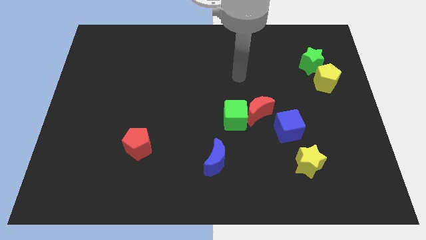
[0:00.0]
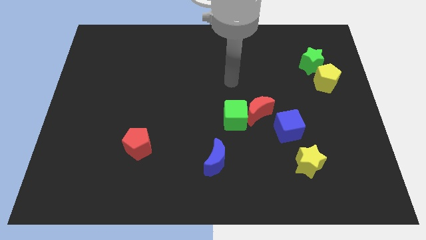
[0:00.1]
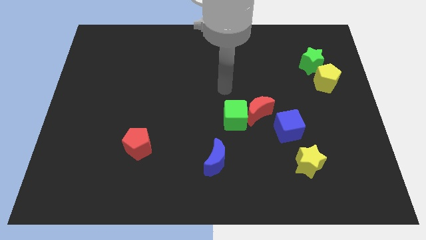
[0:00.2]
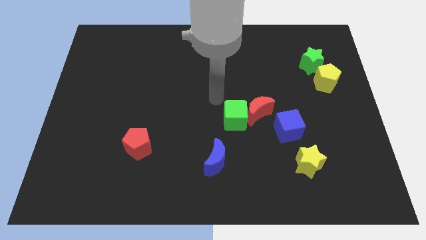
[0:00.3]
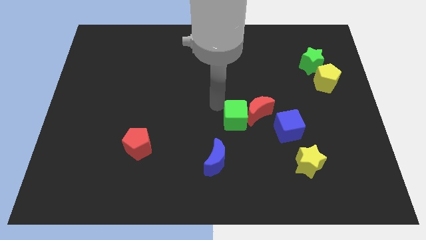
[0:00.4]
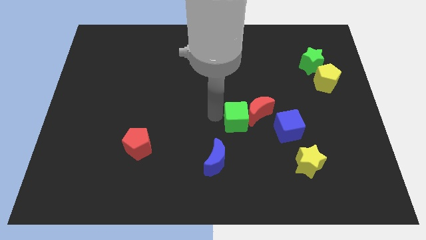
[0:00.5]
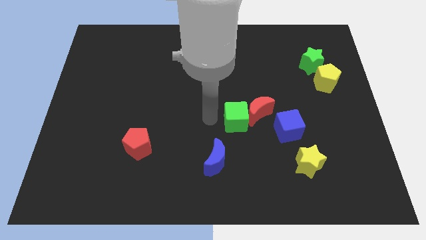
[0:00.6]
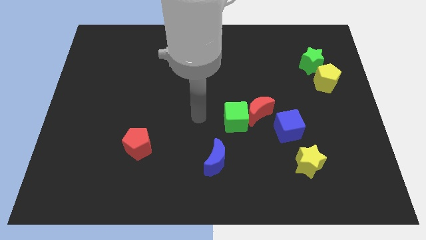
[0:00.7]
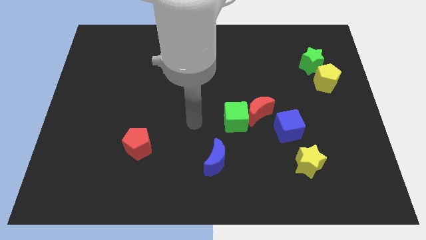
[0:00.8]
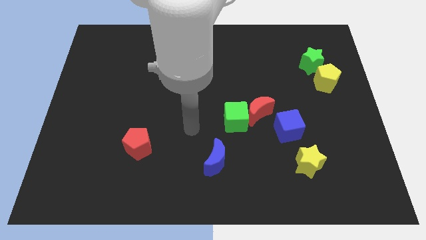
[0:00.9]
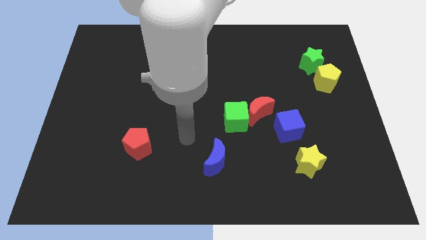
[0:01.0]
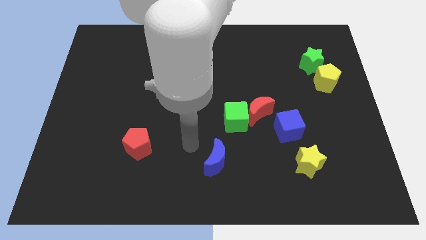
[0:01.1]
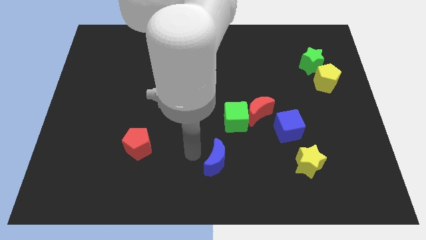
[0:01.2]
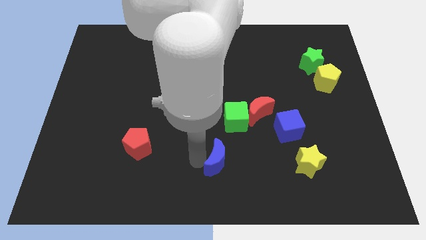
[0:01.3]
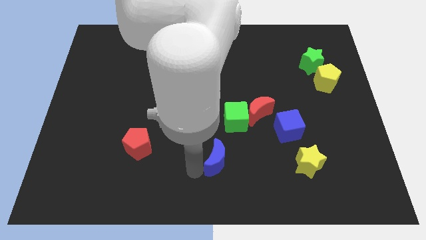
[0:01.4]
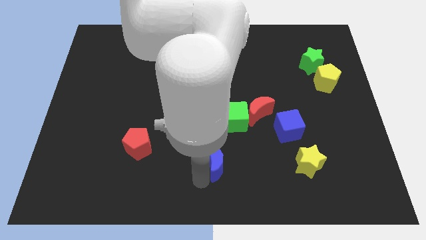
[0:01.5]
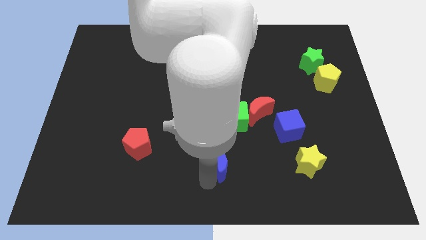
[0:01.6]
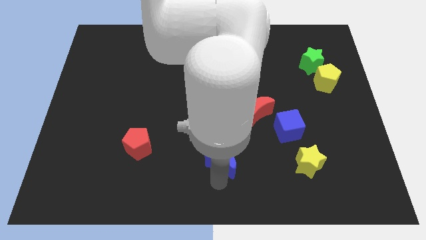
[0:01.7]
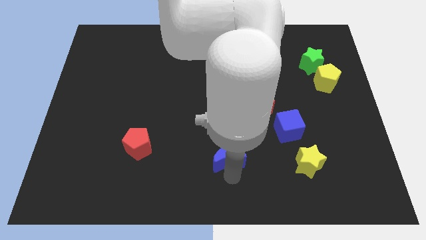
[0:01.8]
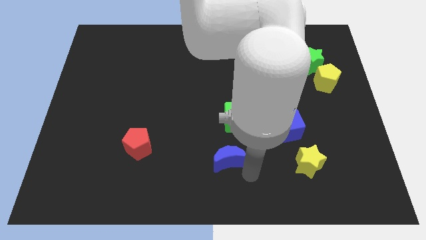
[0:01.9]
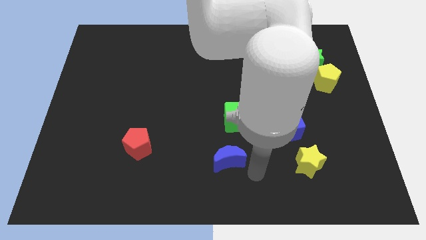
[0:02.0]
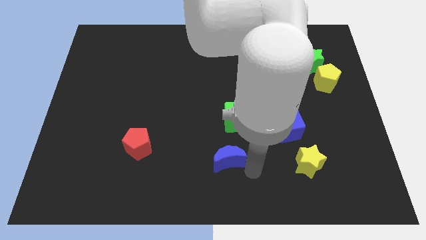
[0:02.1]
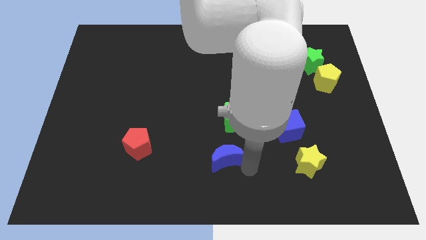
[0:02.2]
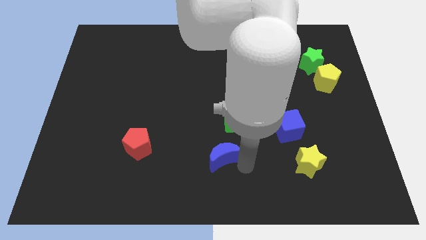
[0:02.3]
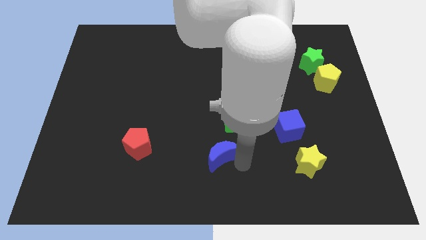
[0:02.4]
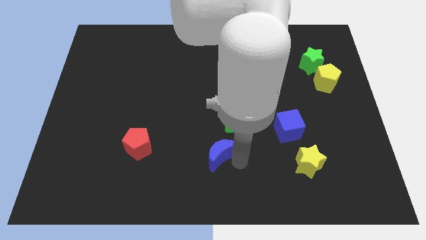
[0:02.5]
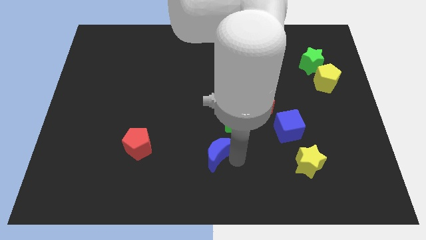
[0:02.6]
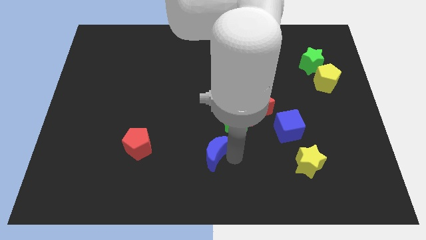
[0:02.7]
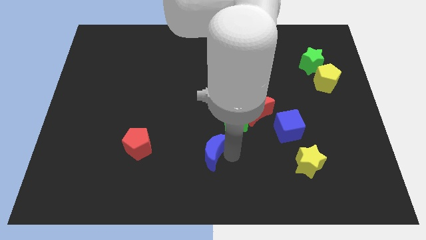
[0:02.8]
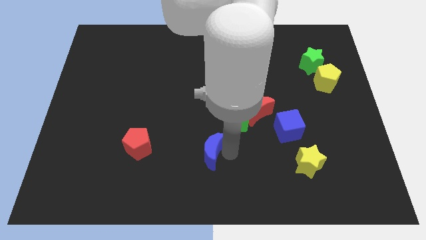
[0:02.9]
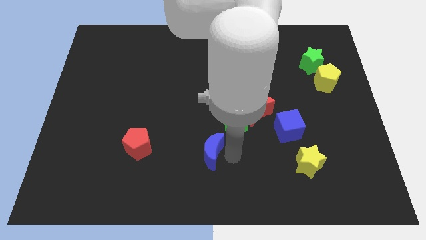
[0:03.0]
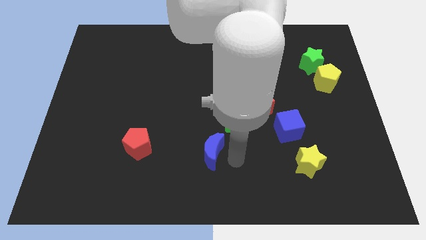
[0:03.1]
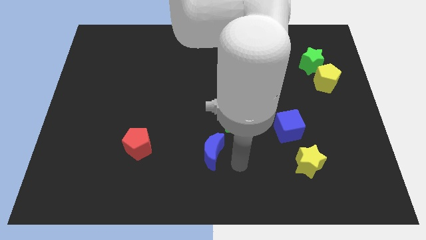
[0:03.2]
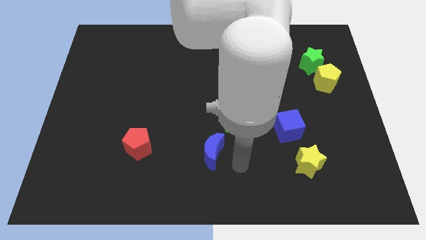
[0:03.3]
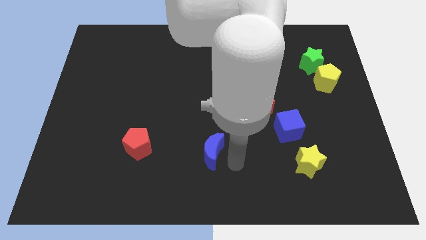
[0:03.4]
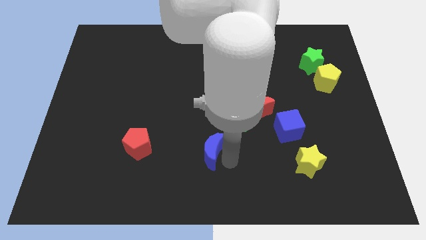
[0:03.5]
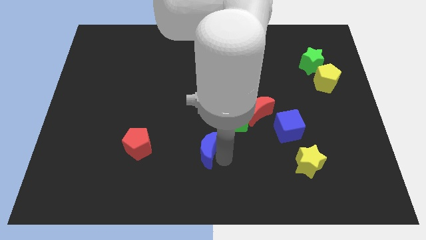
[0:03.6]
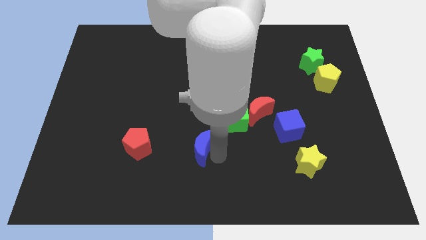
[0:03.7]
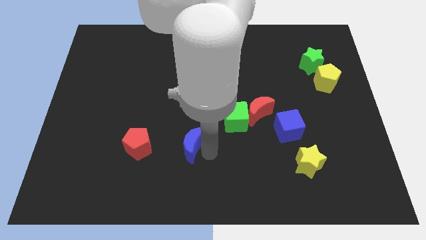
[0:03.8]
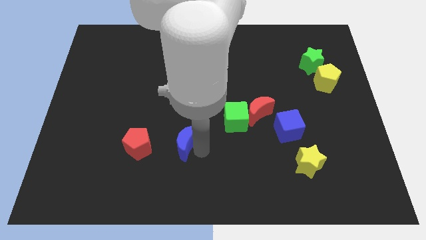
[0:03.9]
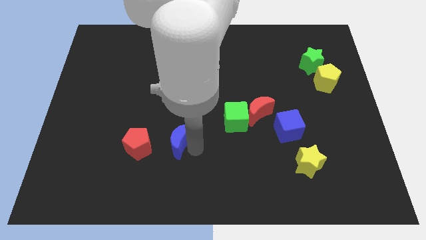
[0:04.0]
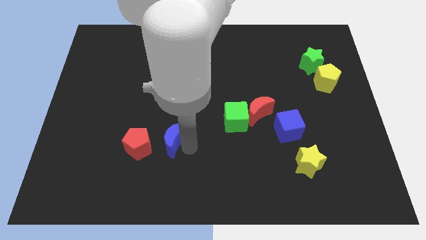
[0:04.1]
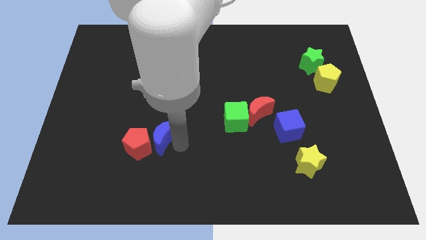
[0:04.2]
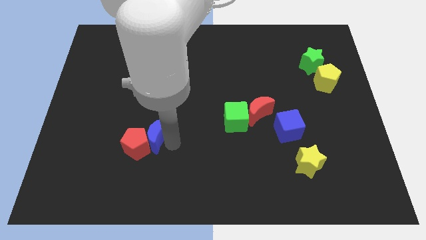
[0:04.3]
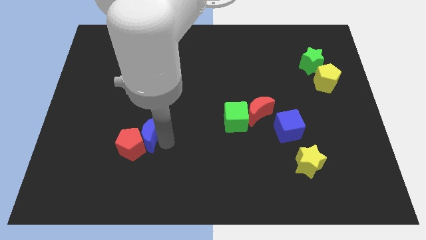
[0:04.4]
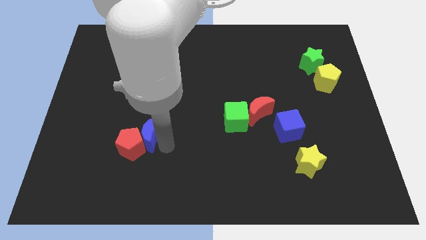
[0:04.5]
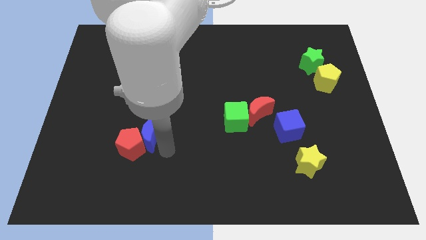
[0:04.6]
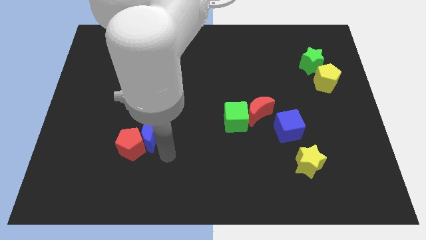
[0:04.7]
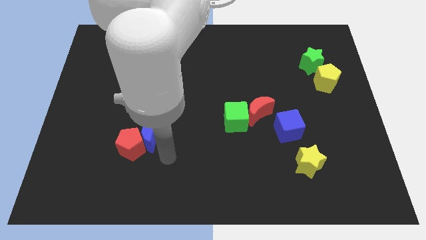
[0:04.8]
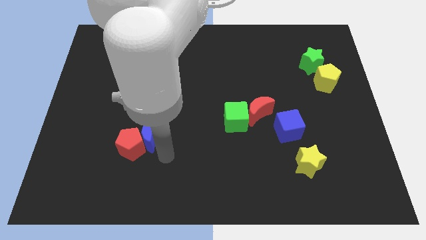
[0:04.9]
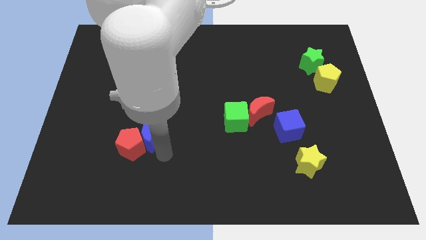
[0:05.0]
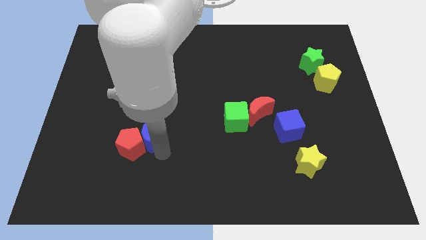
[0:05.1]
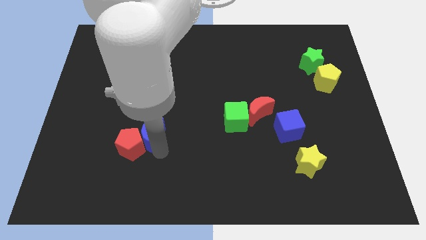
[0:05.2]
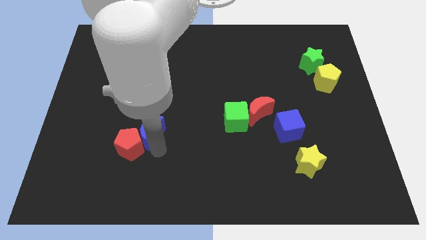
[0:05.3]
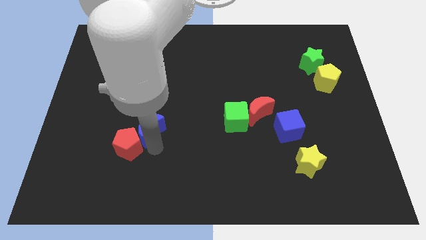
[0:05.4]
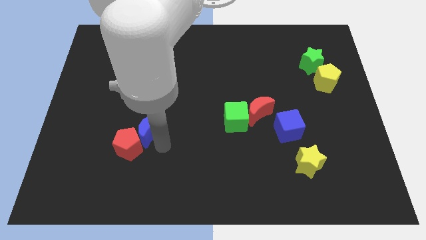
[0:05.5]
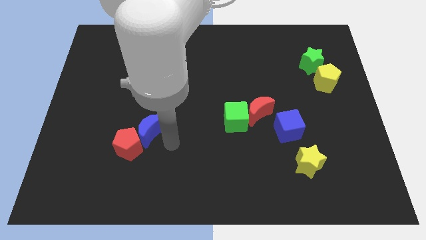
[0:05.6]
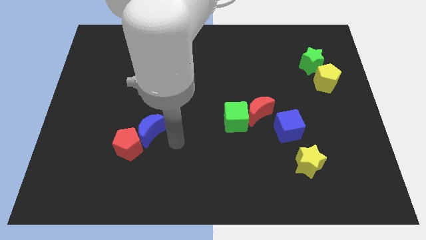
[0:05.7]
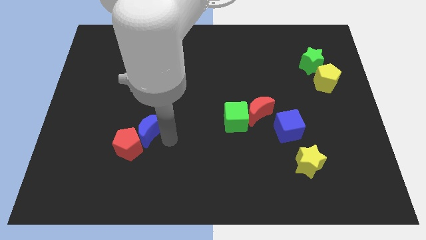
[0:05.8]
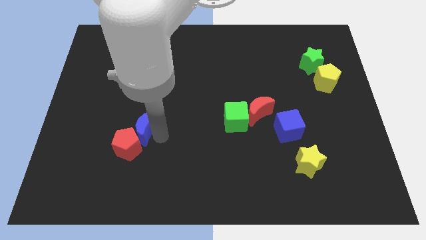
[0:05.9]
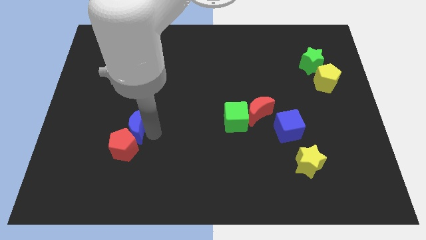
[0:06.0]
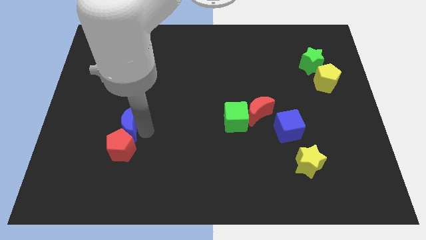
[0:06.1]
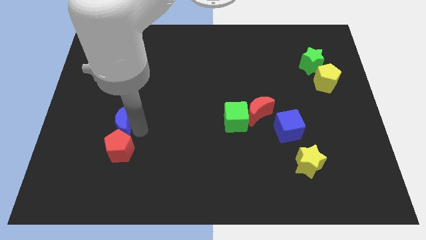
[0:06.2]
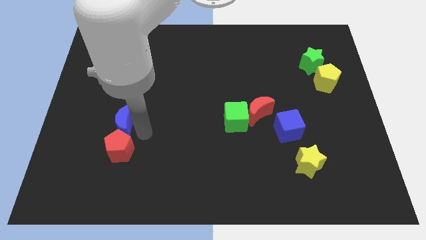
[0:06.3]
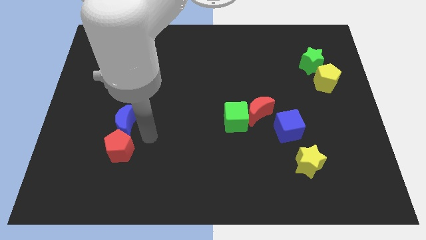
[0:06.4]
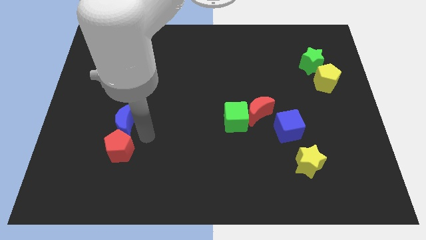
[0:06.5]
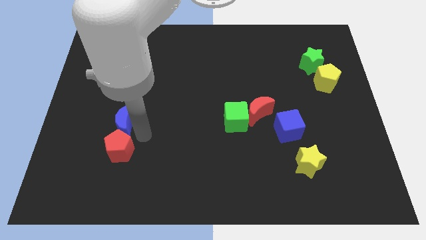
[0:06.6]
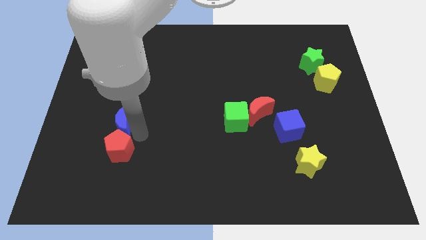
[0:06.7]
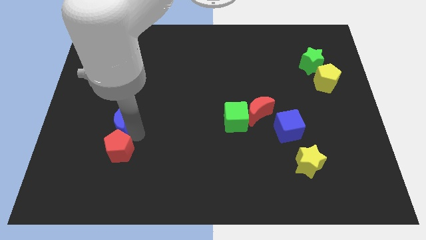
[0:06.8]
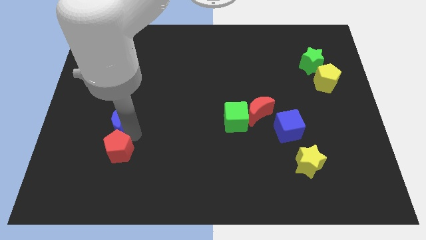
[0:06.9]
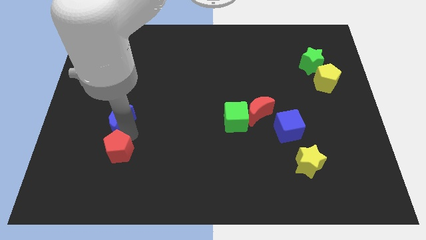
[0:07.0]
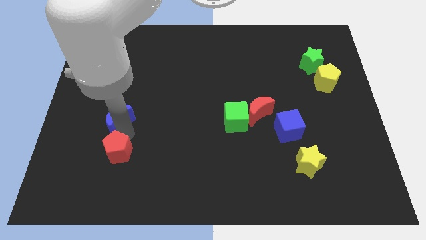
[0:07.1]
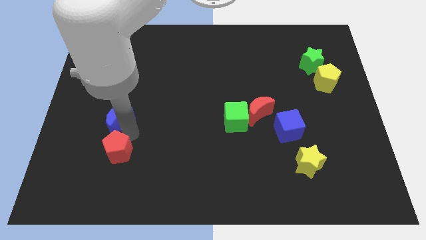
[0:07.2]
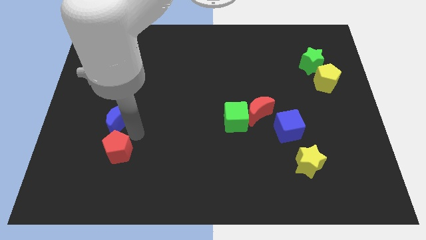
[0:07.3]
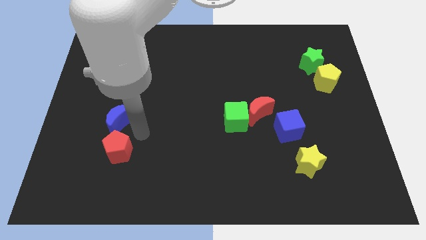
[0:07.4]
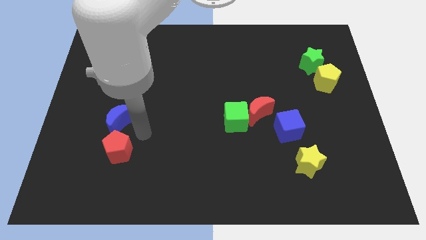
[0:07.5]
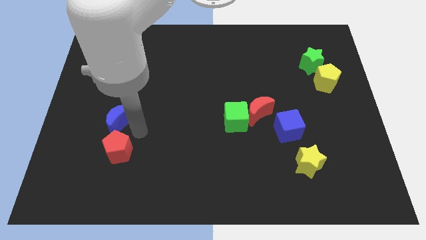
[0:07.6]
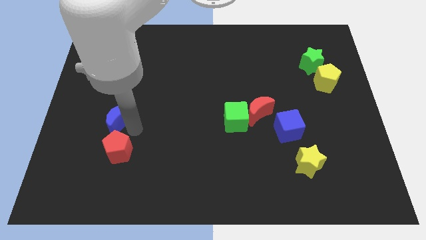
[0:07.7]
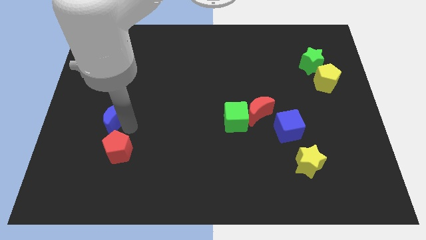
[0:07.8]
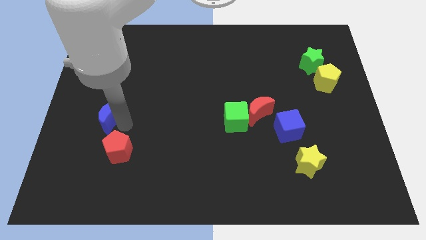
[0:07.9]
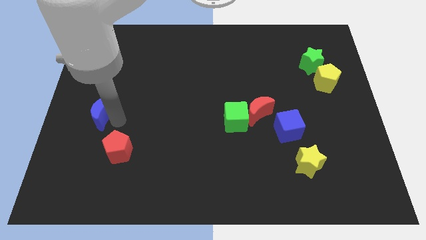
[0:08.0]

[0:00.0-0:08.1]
slide the blue moon to the center left
